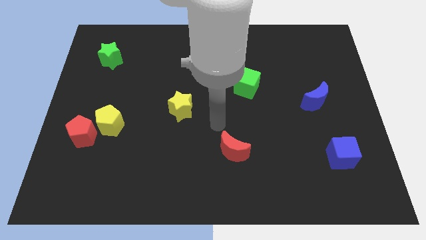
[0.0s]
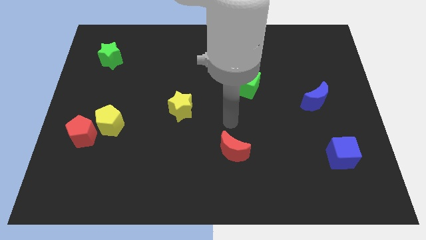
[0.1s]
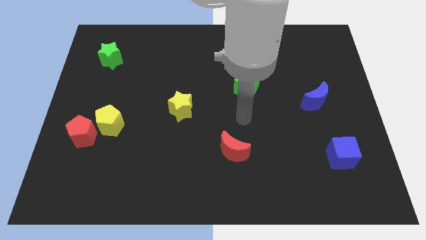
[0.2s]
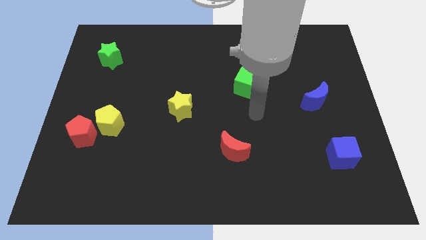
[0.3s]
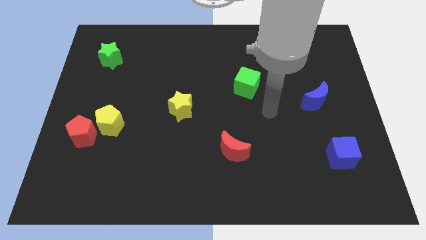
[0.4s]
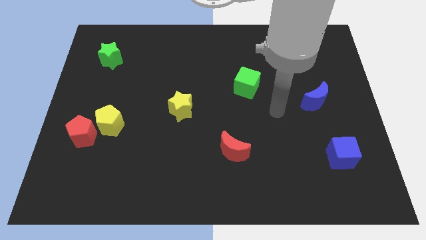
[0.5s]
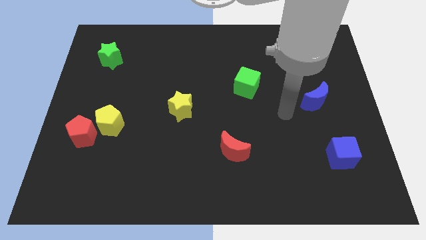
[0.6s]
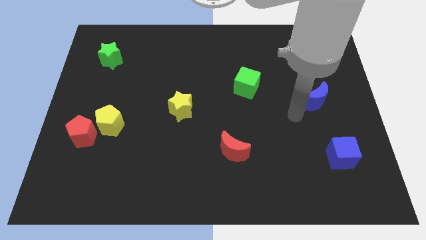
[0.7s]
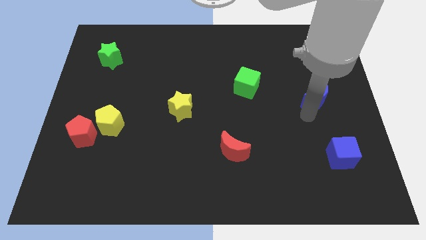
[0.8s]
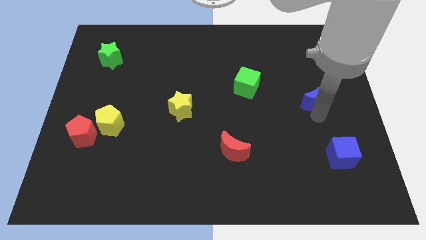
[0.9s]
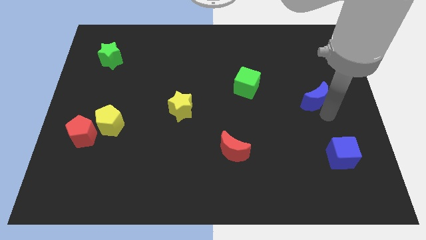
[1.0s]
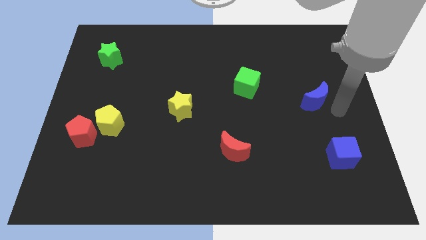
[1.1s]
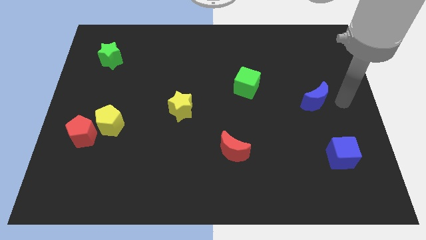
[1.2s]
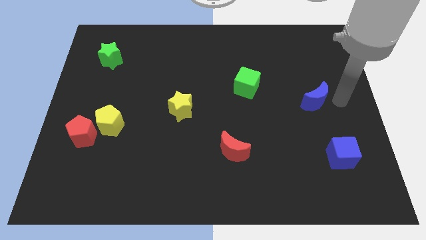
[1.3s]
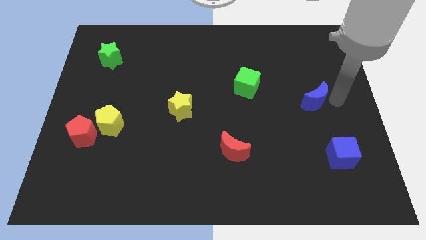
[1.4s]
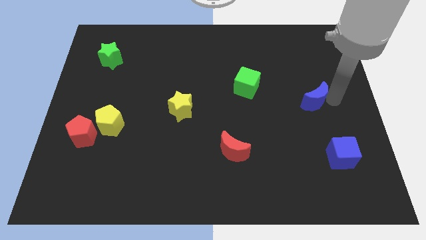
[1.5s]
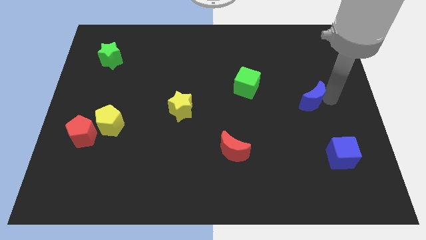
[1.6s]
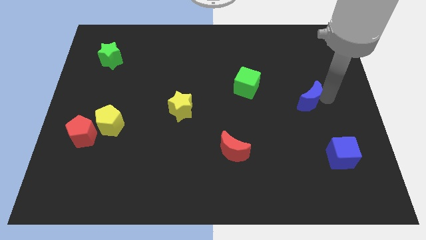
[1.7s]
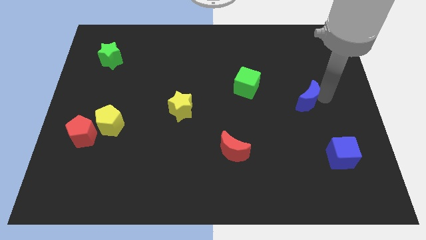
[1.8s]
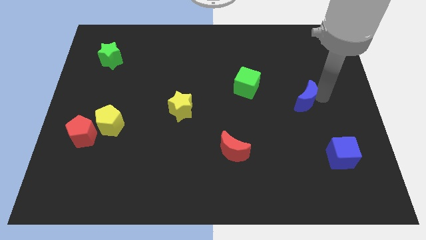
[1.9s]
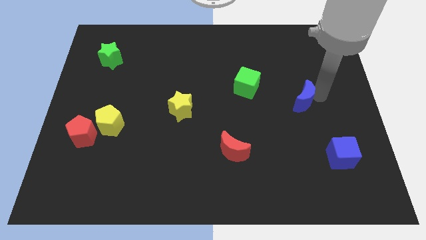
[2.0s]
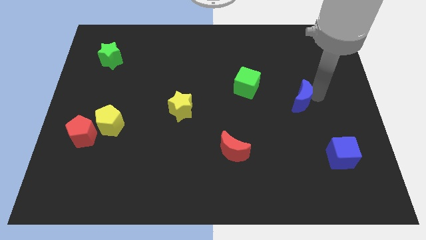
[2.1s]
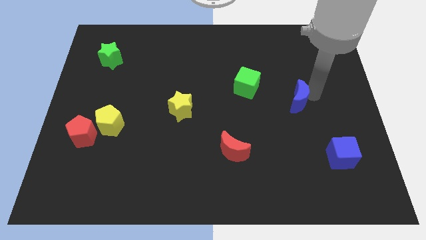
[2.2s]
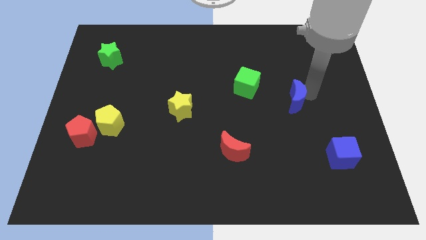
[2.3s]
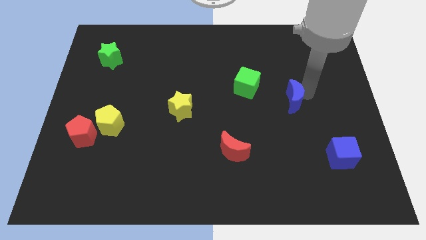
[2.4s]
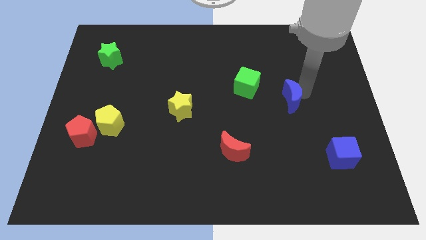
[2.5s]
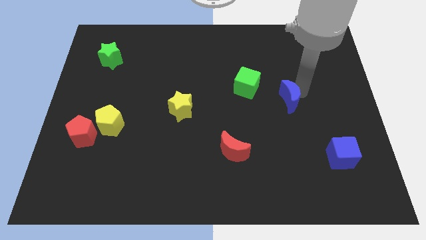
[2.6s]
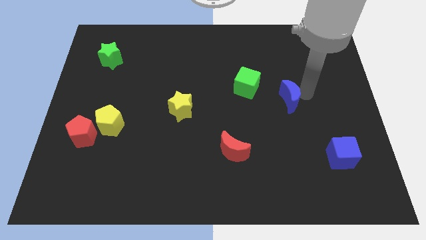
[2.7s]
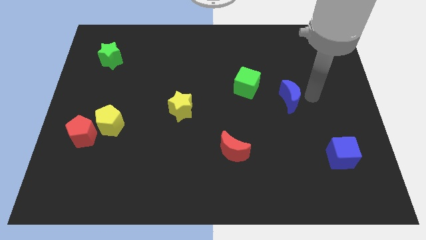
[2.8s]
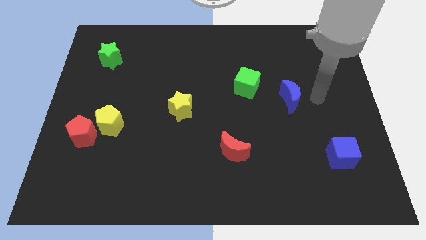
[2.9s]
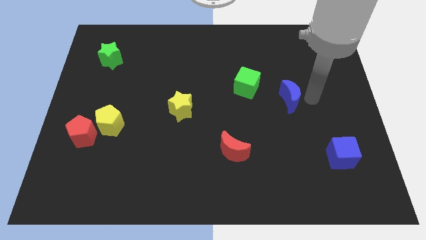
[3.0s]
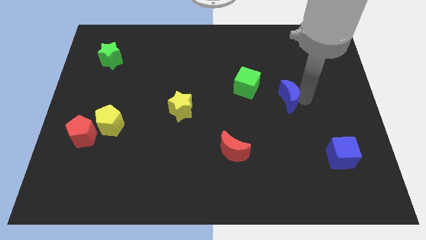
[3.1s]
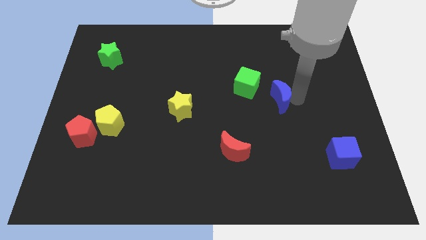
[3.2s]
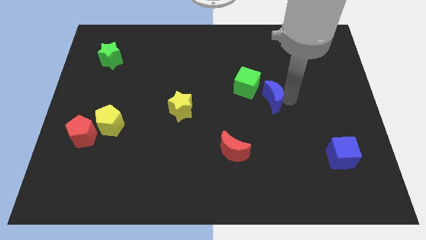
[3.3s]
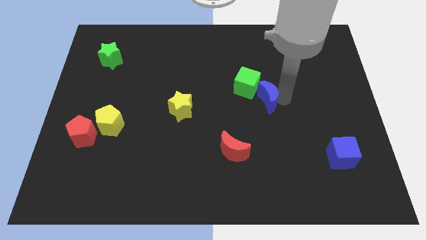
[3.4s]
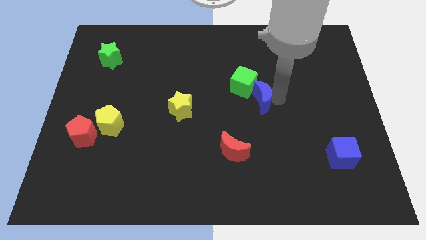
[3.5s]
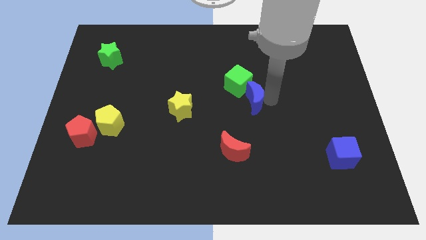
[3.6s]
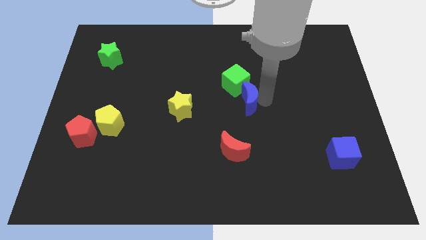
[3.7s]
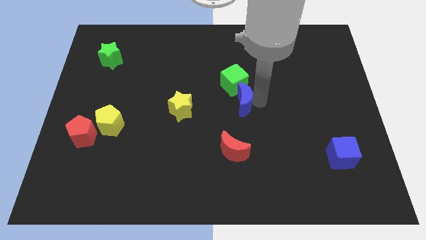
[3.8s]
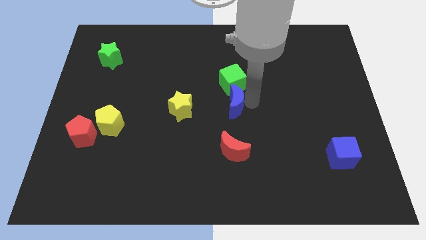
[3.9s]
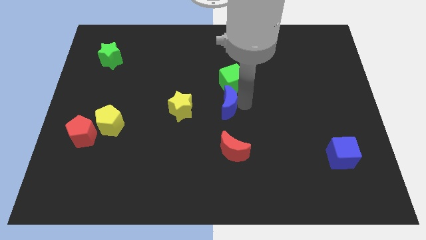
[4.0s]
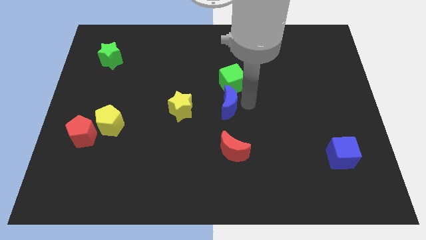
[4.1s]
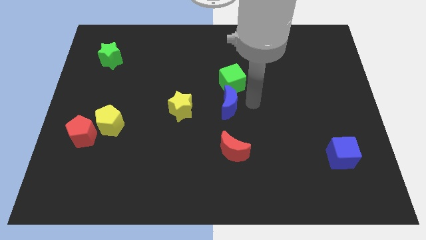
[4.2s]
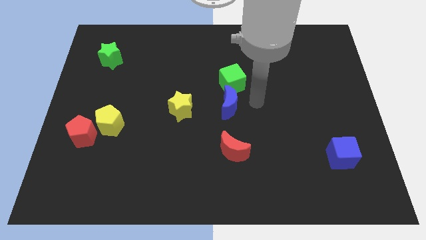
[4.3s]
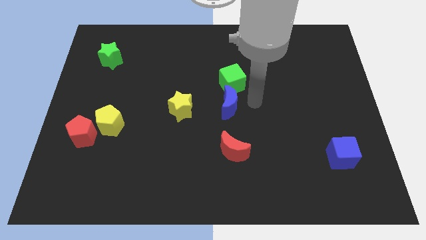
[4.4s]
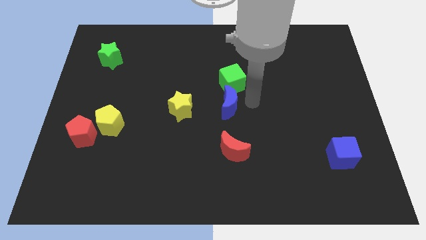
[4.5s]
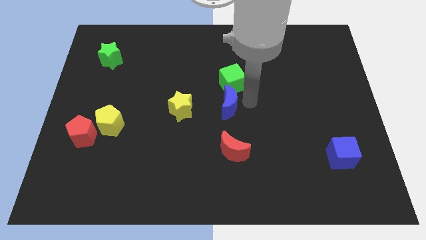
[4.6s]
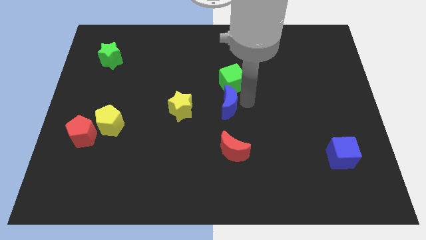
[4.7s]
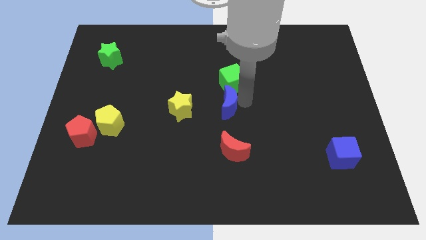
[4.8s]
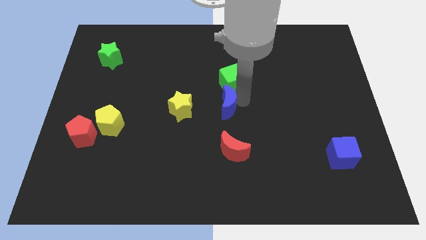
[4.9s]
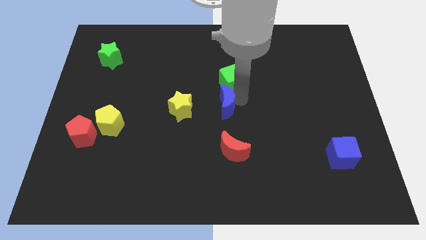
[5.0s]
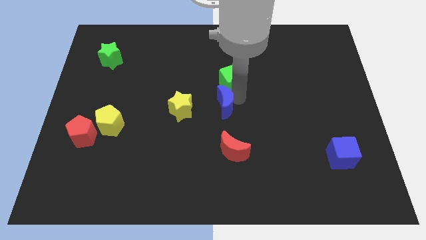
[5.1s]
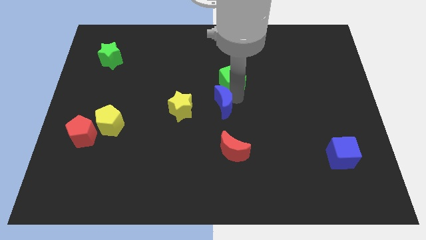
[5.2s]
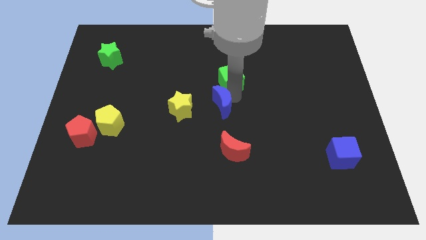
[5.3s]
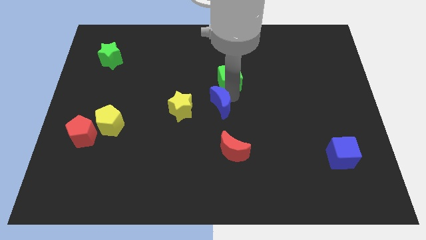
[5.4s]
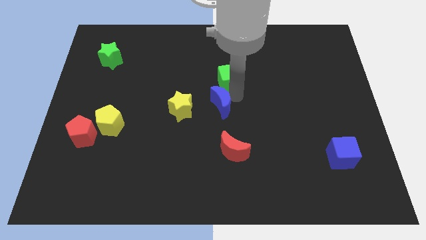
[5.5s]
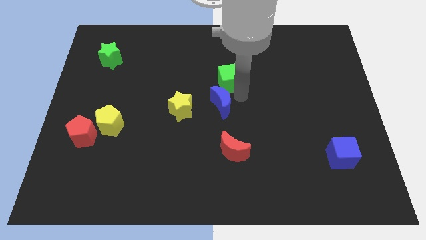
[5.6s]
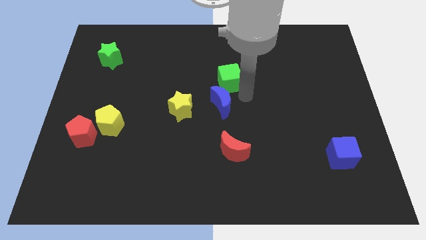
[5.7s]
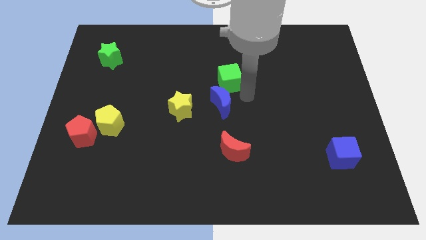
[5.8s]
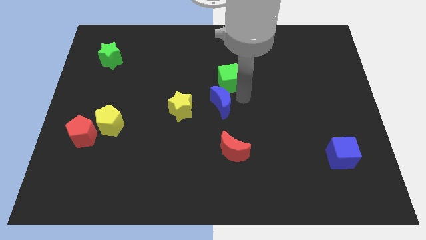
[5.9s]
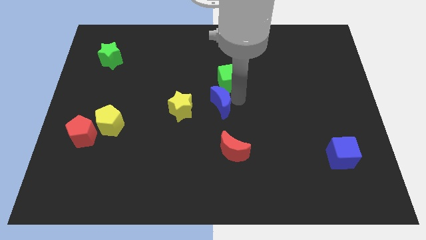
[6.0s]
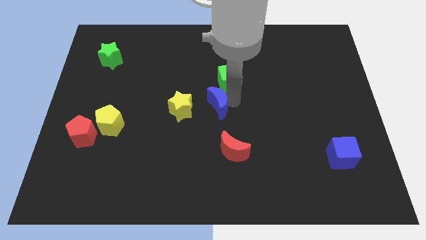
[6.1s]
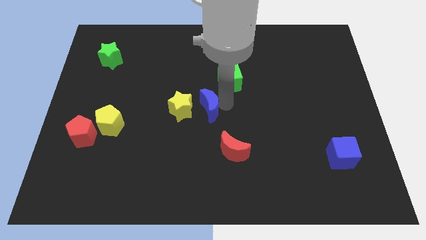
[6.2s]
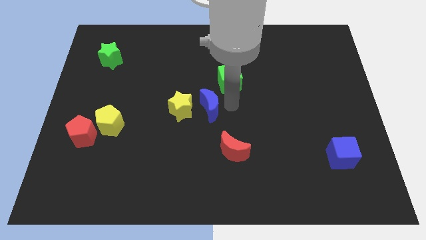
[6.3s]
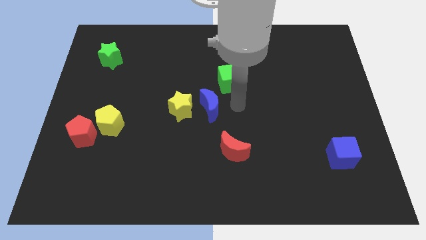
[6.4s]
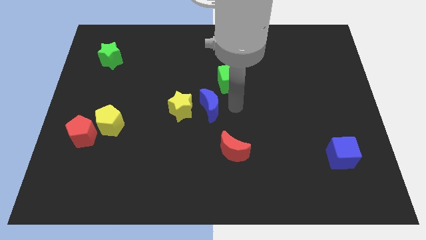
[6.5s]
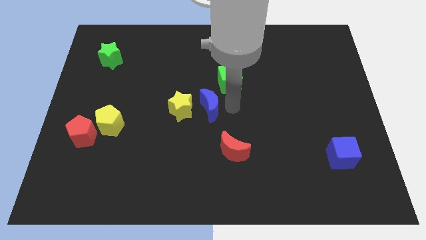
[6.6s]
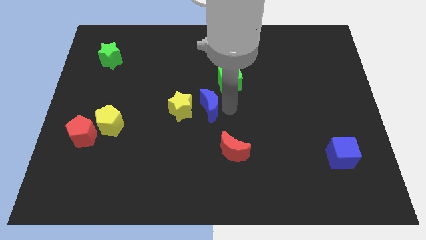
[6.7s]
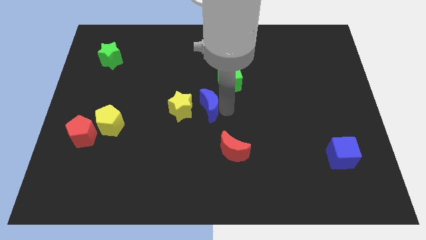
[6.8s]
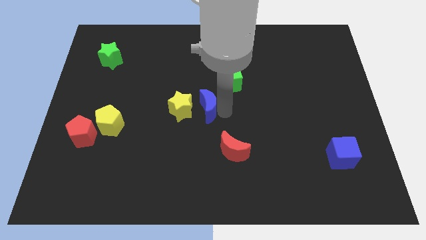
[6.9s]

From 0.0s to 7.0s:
push the blue moon to the yellow star
